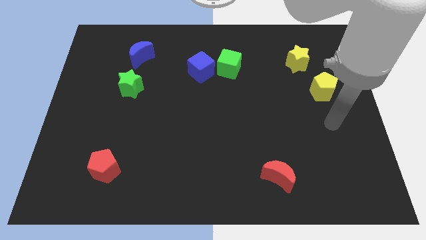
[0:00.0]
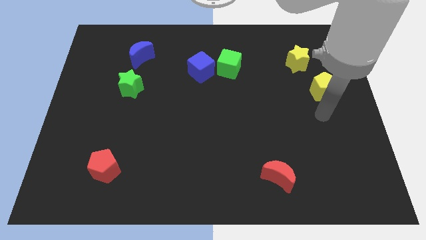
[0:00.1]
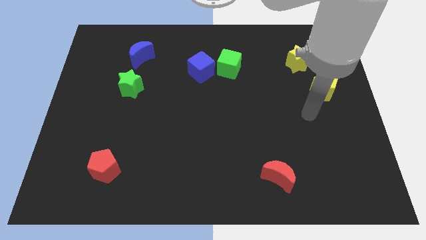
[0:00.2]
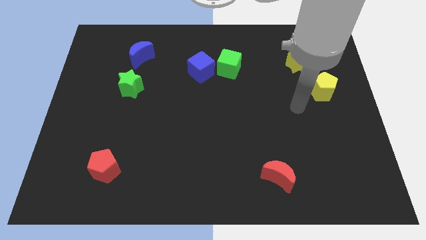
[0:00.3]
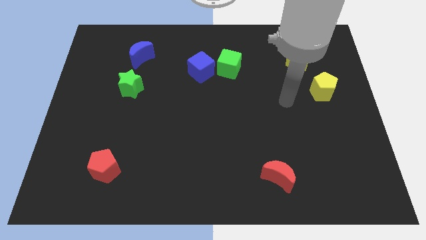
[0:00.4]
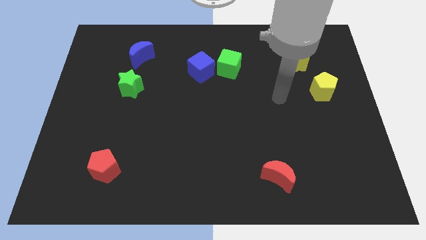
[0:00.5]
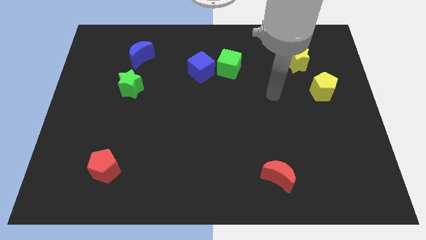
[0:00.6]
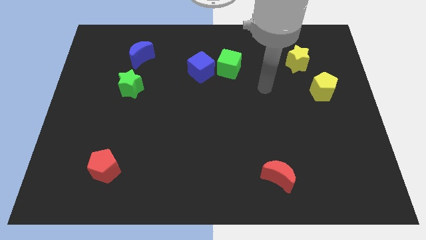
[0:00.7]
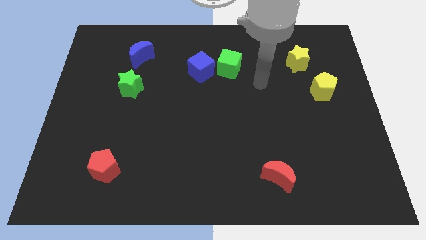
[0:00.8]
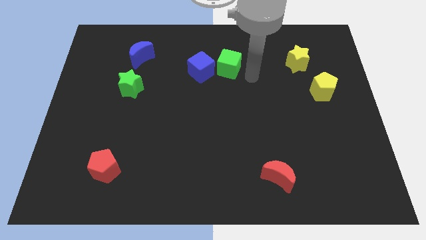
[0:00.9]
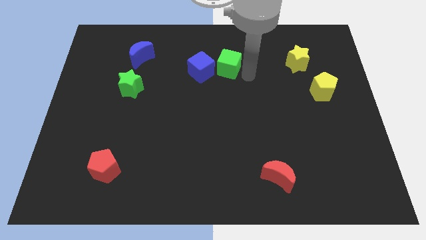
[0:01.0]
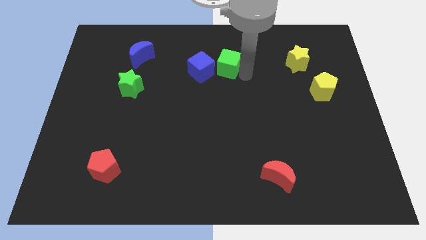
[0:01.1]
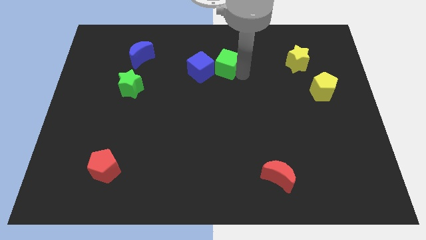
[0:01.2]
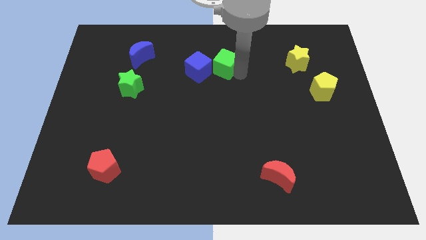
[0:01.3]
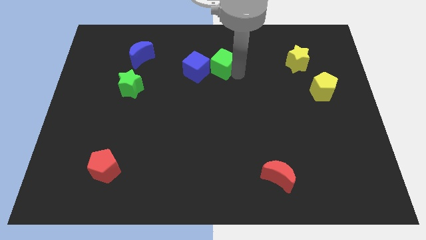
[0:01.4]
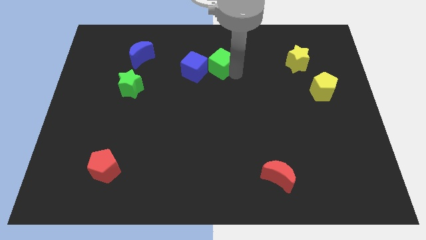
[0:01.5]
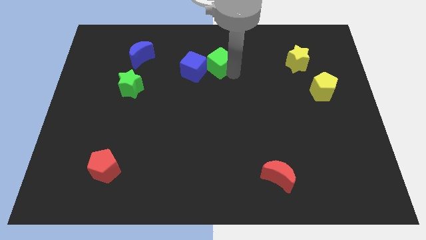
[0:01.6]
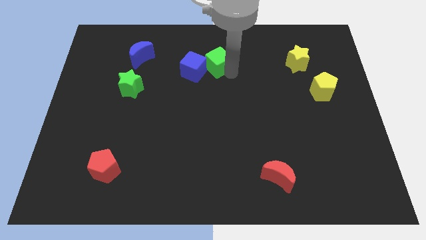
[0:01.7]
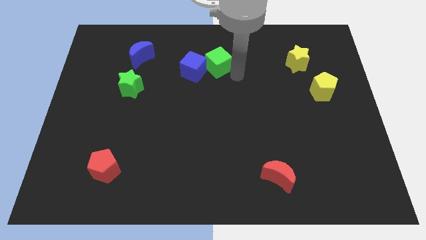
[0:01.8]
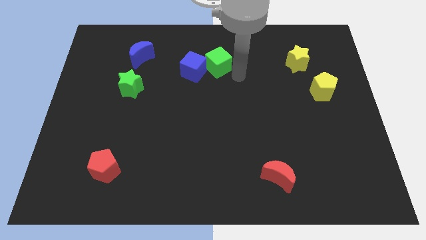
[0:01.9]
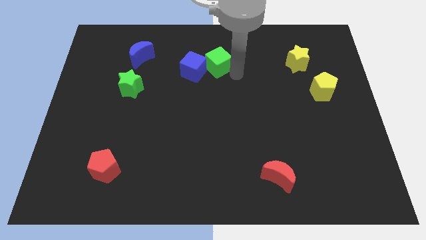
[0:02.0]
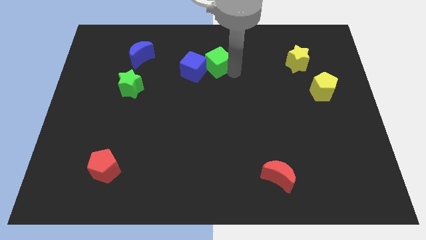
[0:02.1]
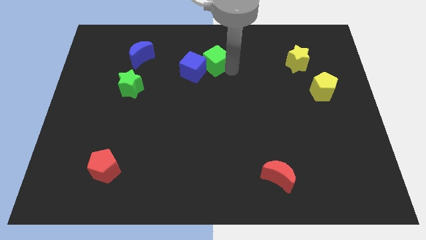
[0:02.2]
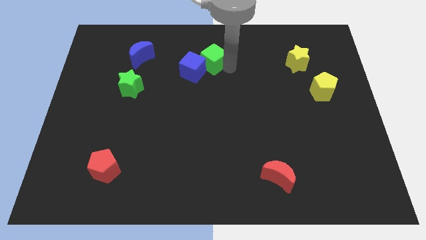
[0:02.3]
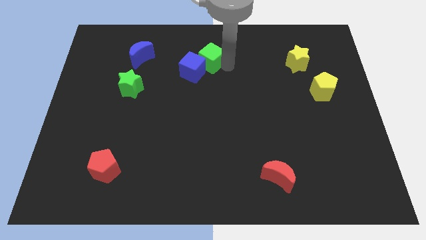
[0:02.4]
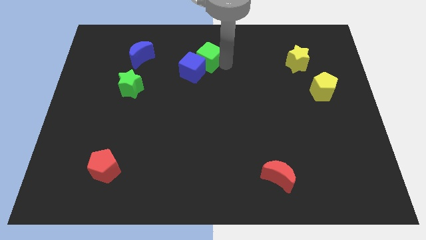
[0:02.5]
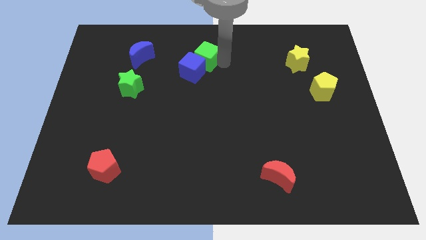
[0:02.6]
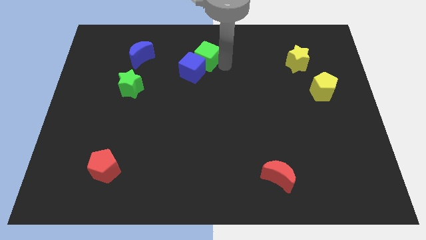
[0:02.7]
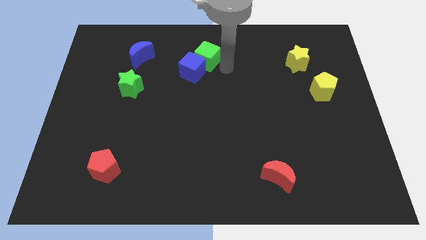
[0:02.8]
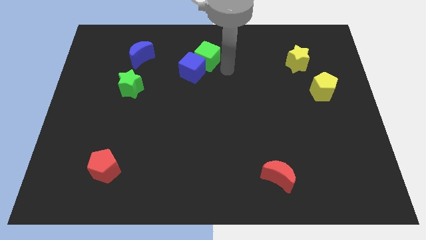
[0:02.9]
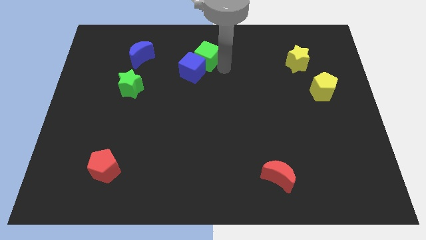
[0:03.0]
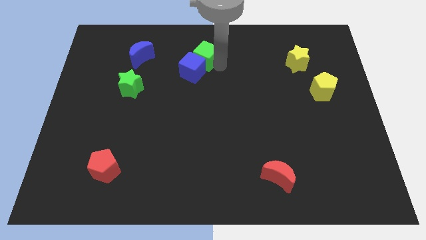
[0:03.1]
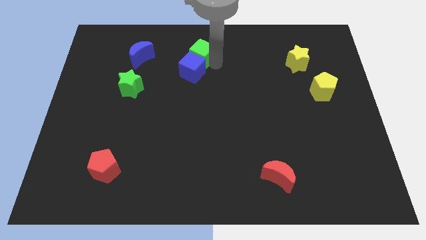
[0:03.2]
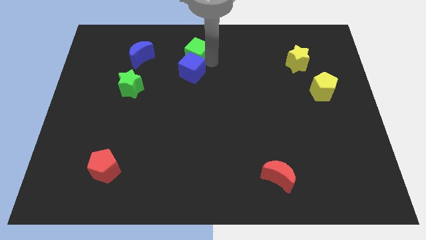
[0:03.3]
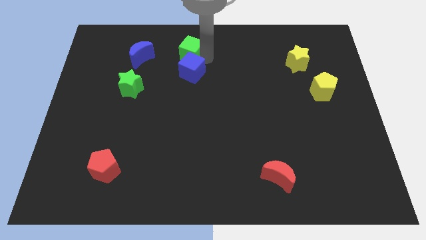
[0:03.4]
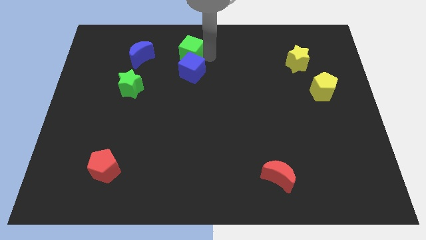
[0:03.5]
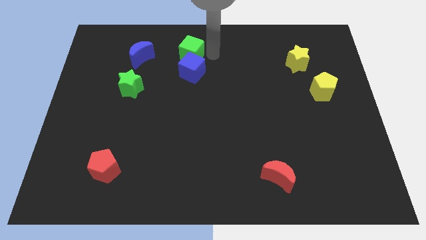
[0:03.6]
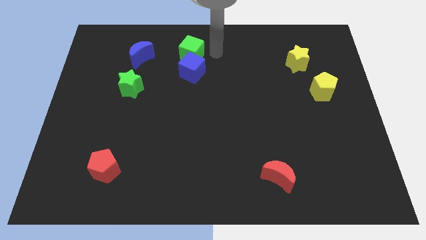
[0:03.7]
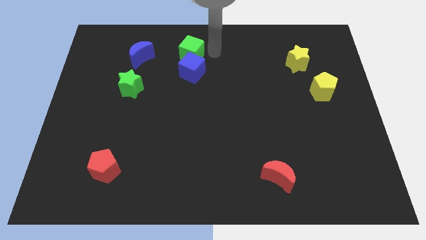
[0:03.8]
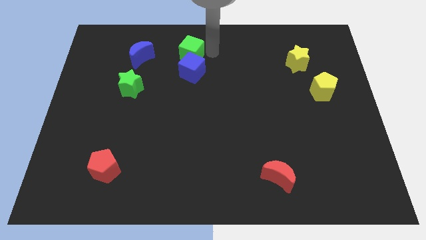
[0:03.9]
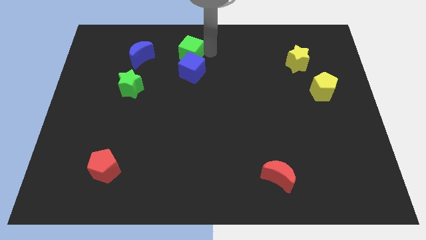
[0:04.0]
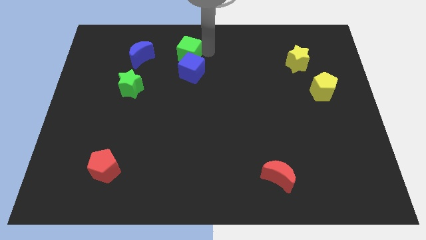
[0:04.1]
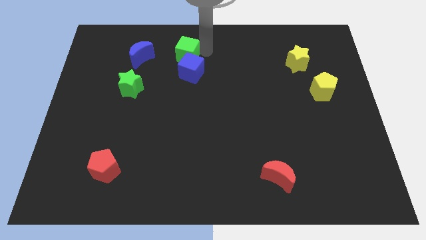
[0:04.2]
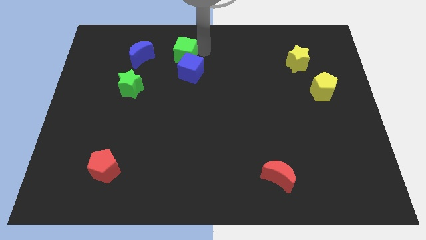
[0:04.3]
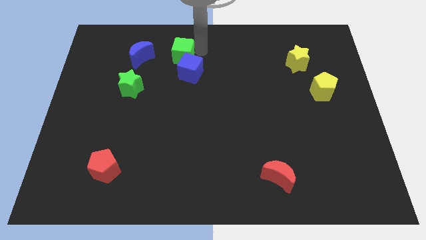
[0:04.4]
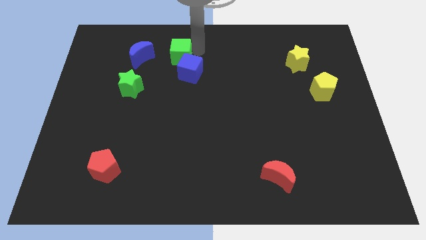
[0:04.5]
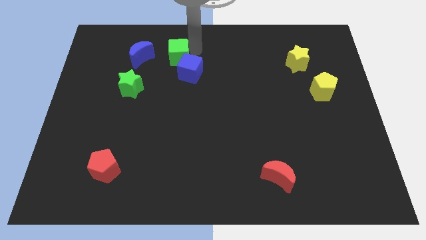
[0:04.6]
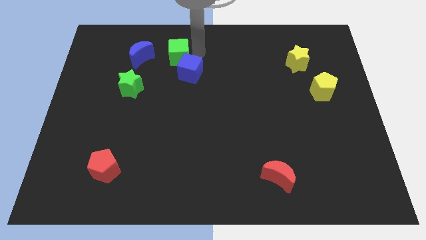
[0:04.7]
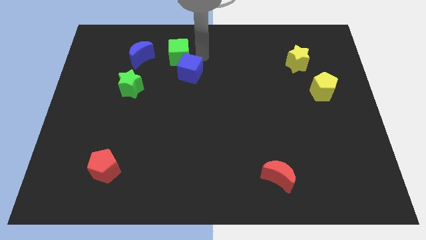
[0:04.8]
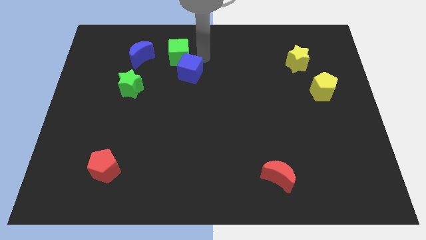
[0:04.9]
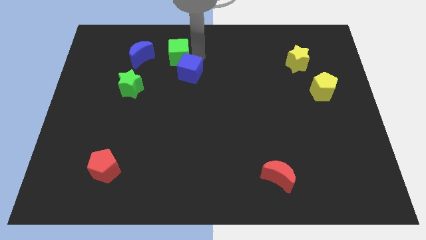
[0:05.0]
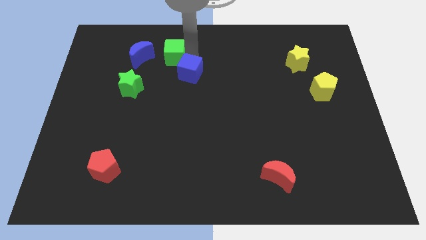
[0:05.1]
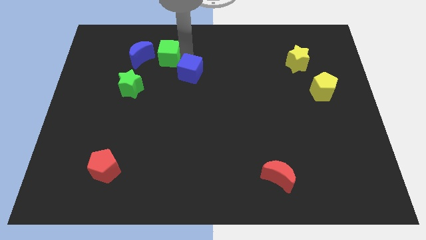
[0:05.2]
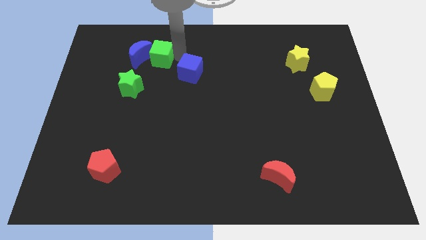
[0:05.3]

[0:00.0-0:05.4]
slide the green cube towards the blue moon

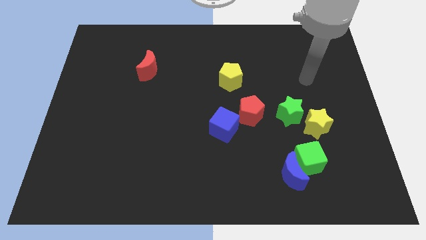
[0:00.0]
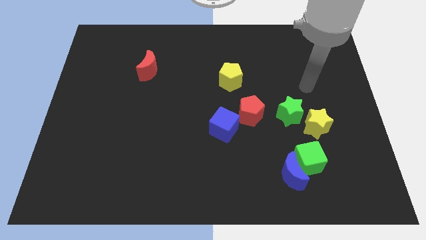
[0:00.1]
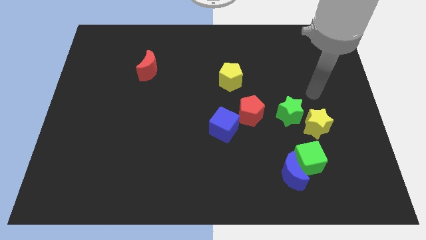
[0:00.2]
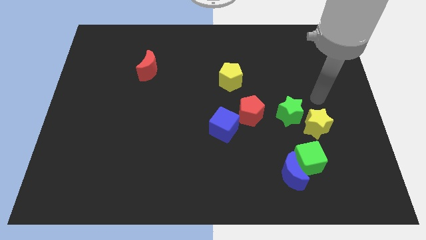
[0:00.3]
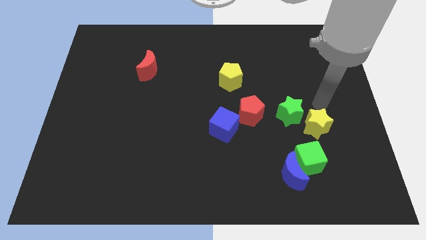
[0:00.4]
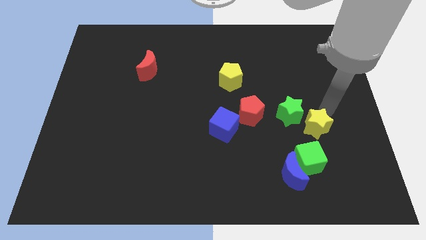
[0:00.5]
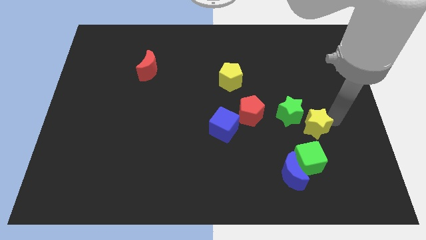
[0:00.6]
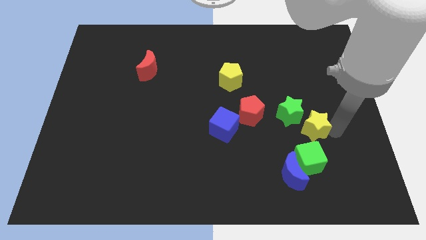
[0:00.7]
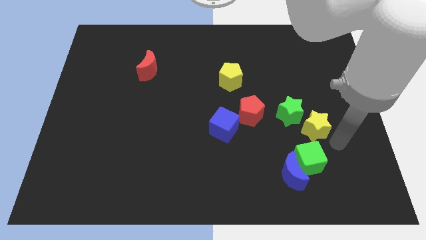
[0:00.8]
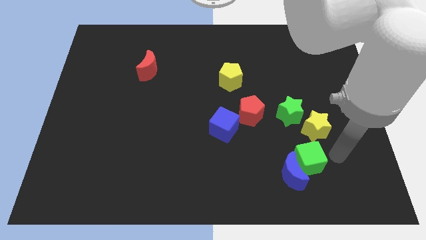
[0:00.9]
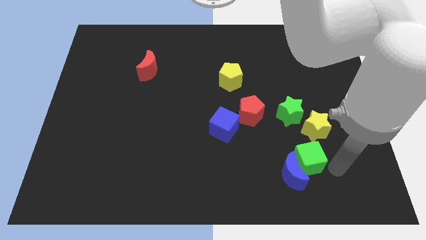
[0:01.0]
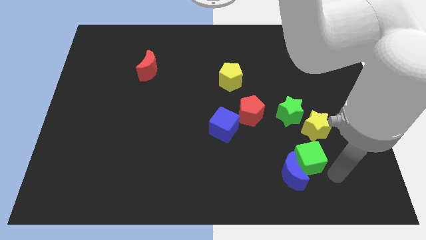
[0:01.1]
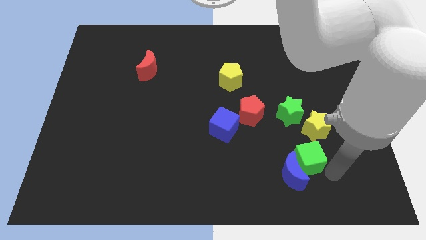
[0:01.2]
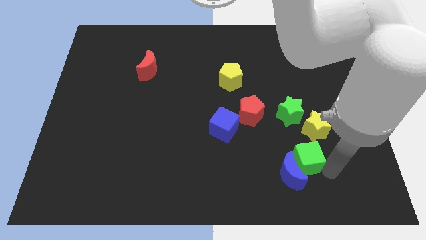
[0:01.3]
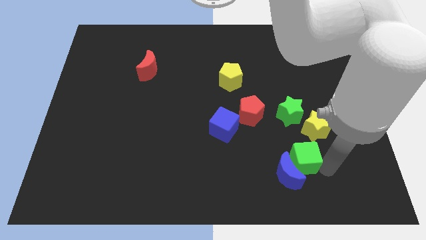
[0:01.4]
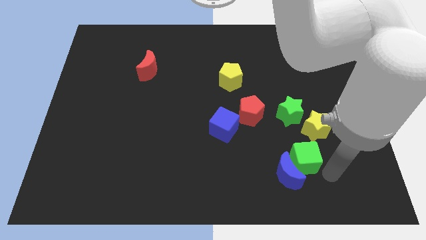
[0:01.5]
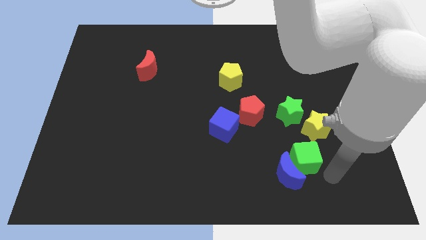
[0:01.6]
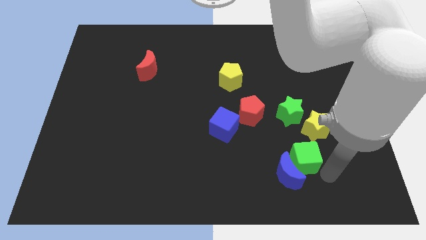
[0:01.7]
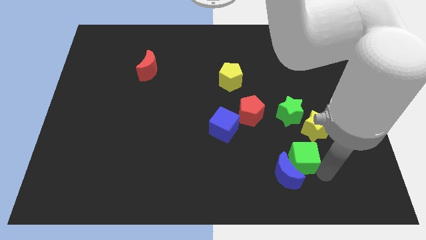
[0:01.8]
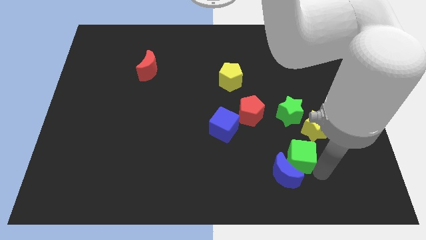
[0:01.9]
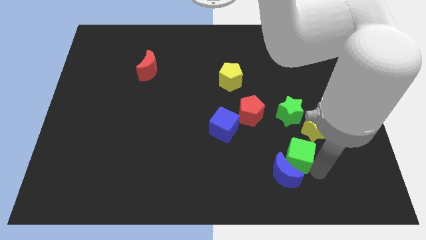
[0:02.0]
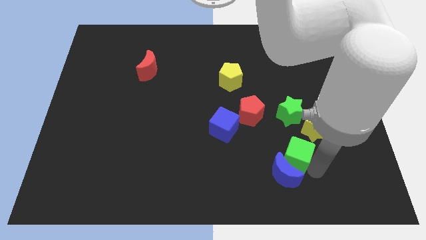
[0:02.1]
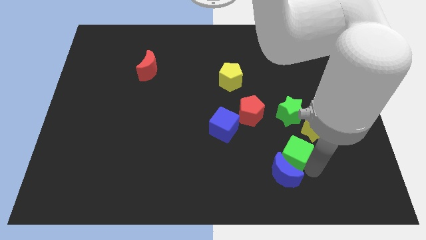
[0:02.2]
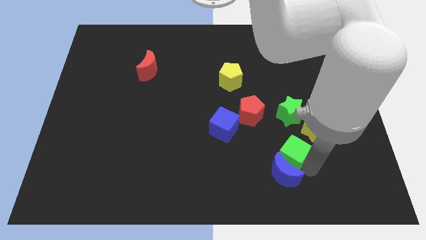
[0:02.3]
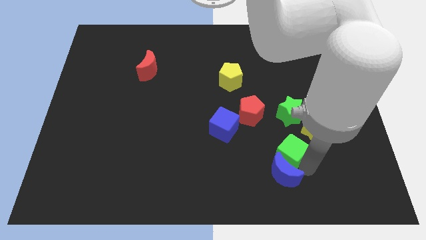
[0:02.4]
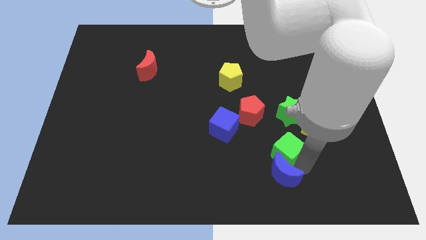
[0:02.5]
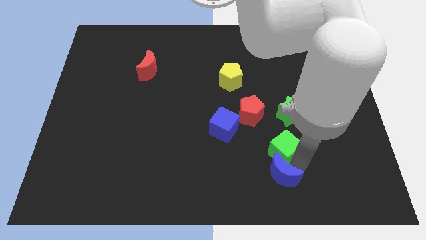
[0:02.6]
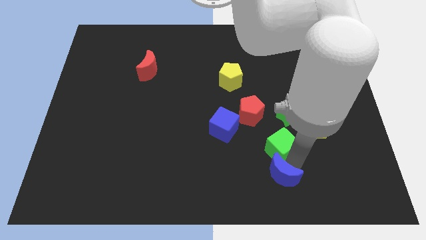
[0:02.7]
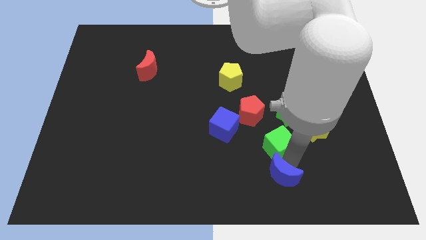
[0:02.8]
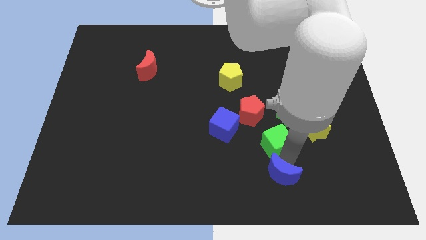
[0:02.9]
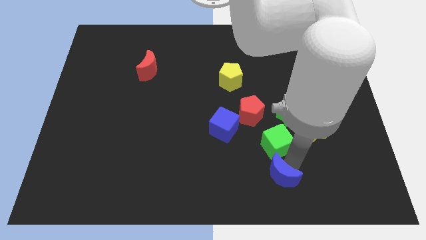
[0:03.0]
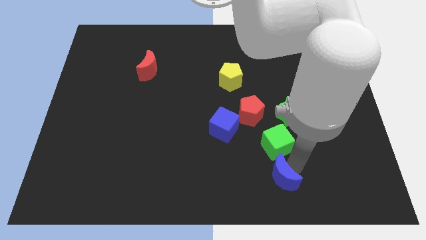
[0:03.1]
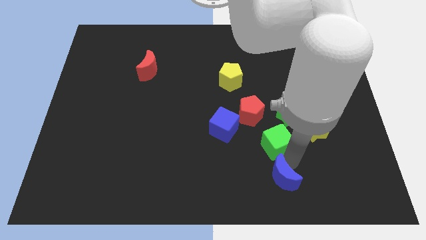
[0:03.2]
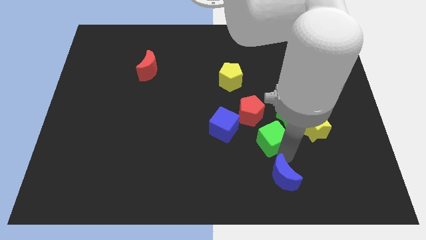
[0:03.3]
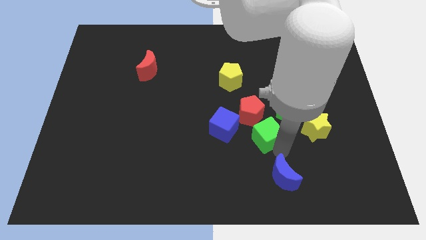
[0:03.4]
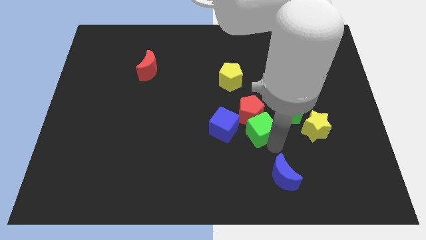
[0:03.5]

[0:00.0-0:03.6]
slide the green cube next to the red pentagon
